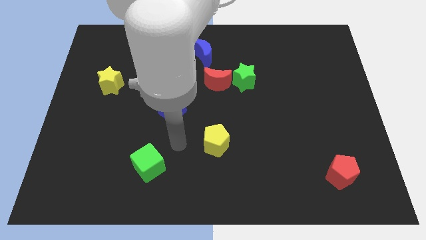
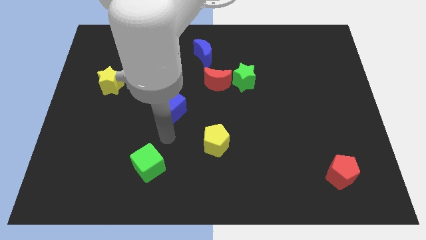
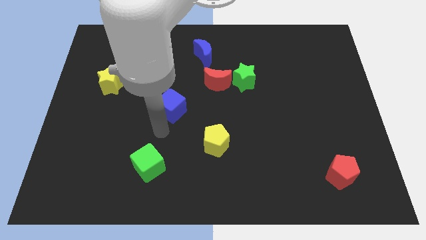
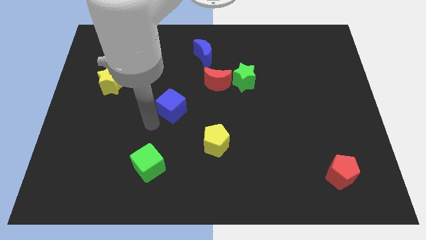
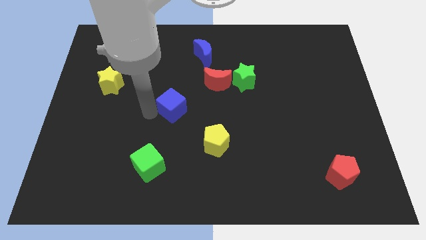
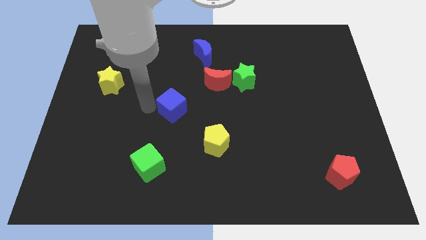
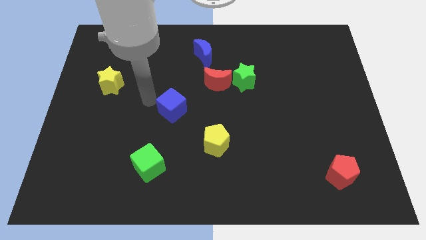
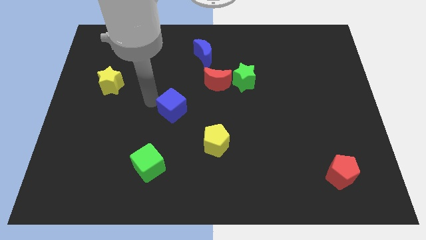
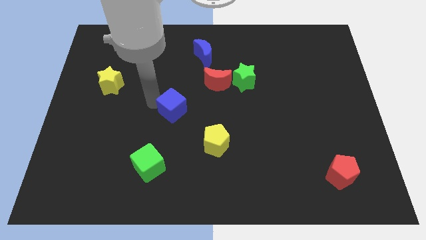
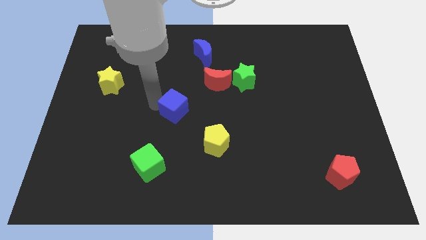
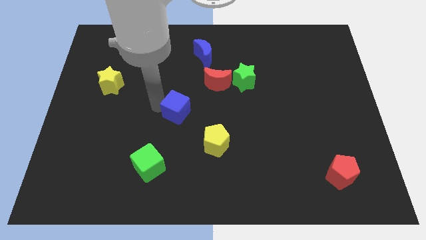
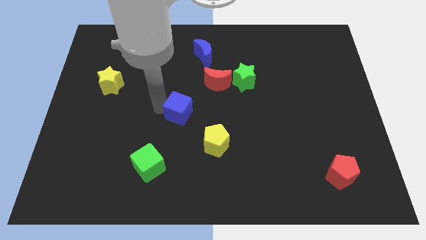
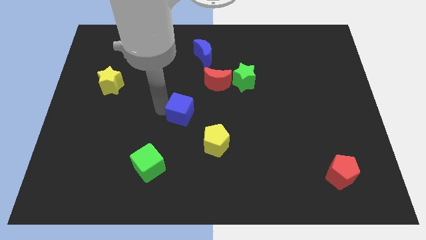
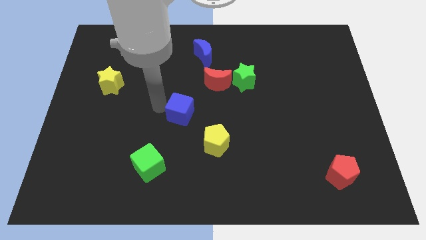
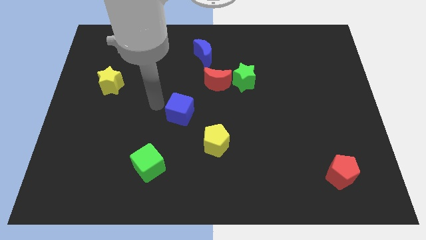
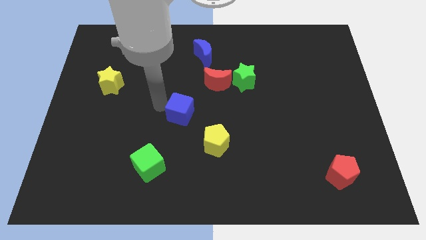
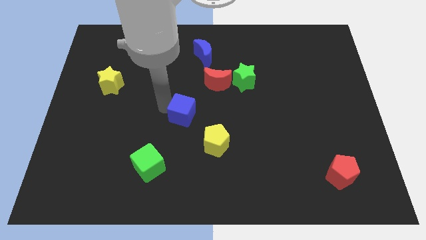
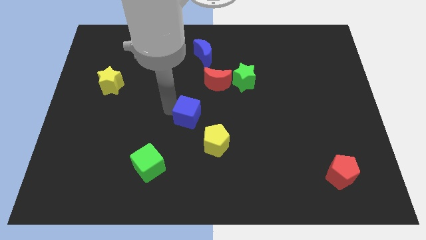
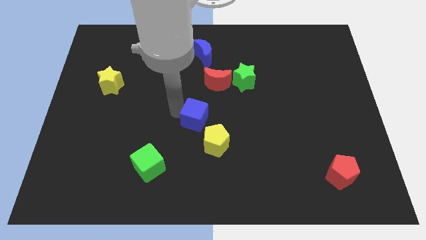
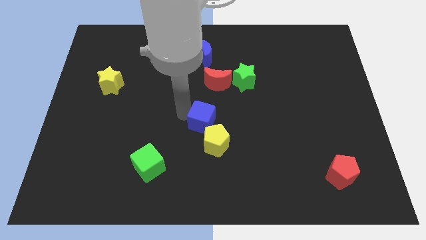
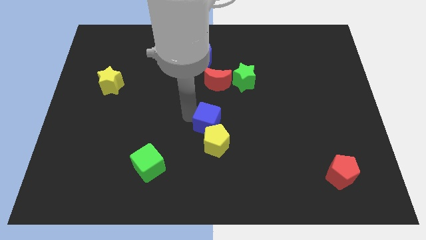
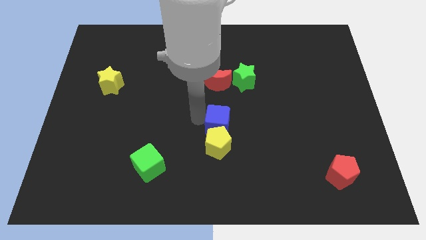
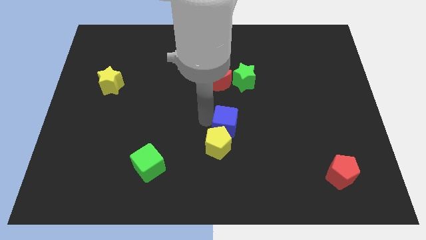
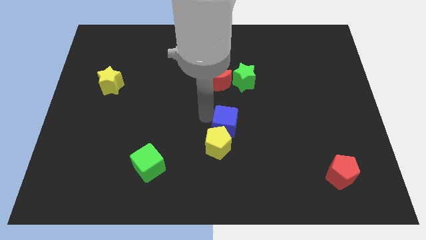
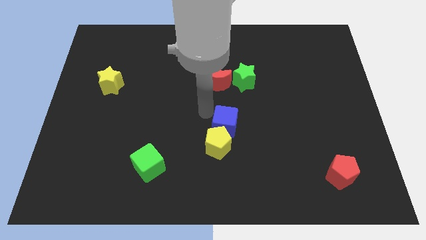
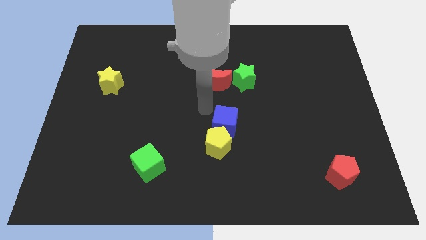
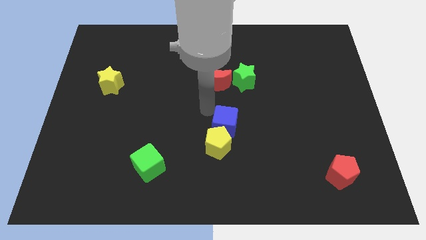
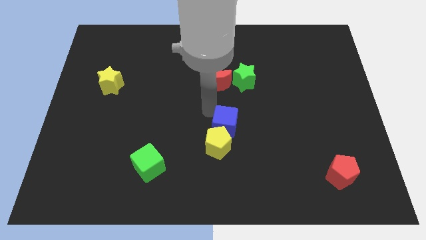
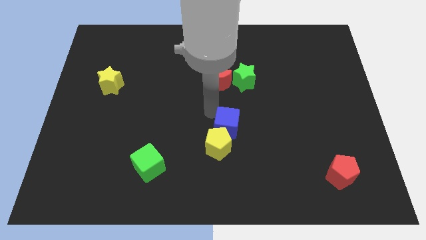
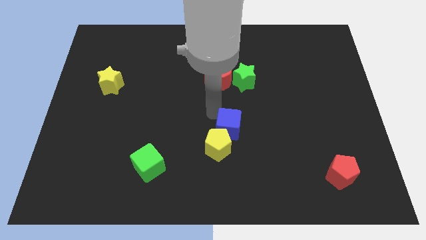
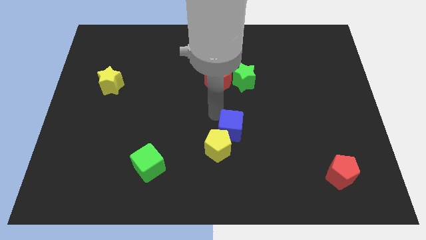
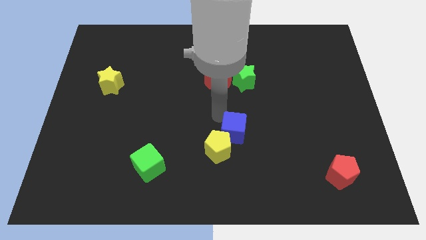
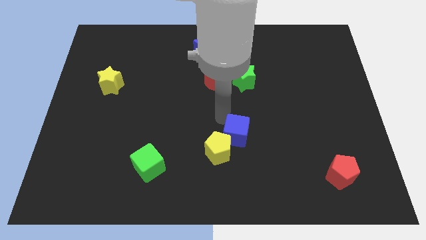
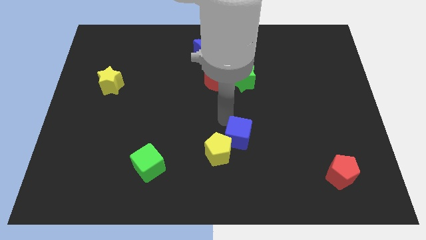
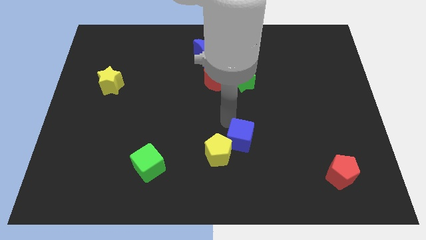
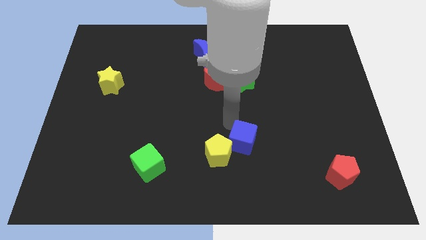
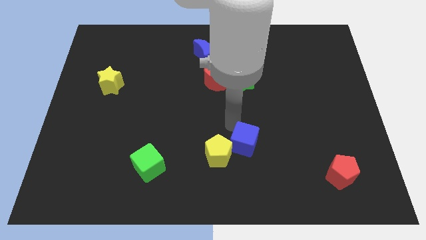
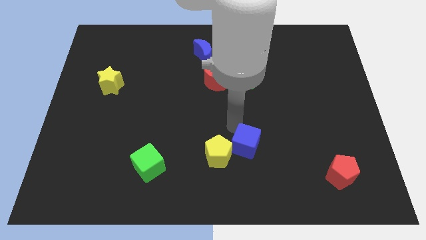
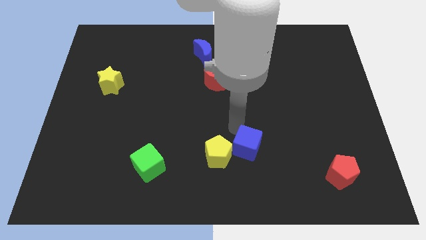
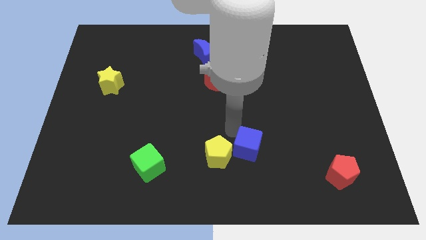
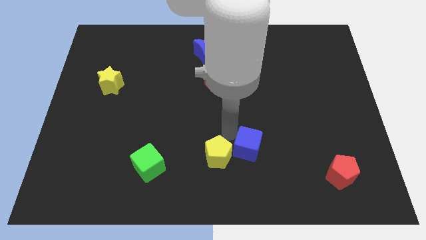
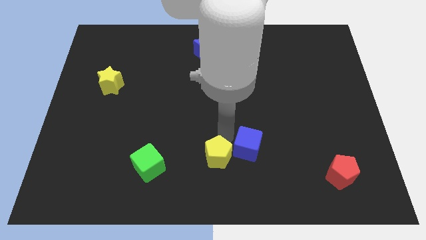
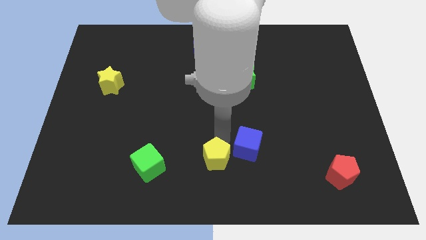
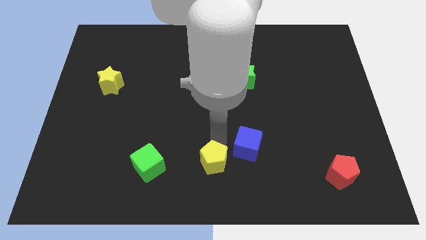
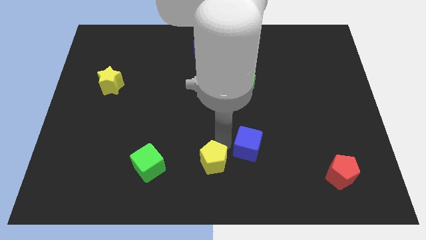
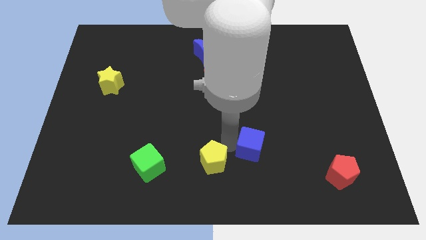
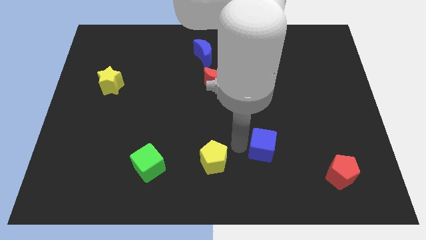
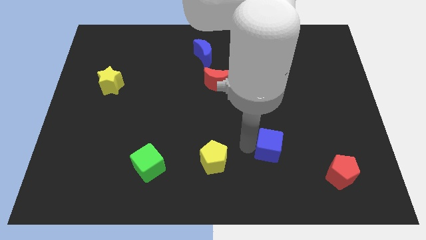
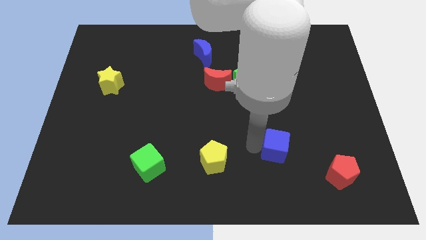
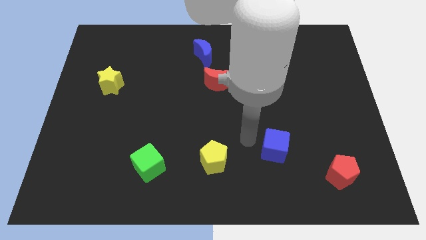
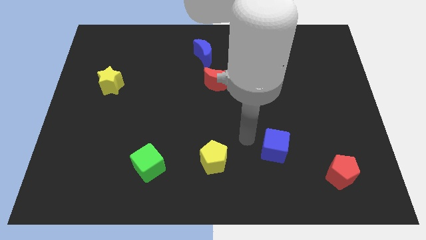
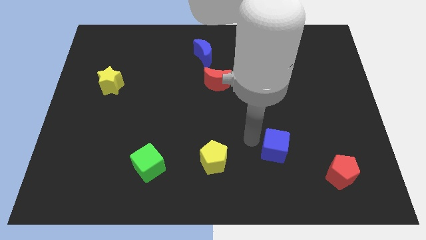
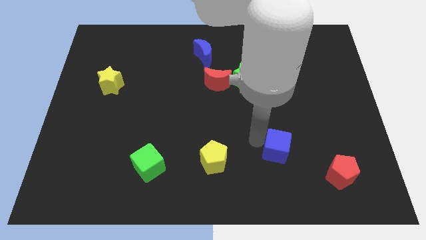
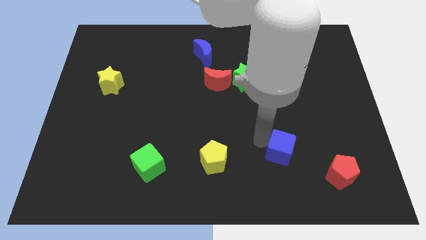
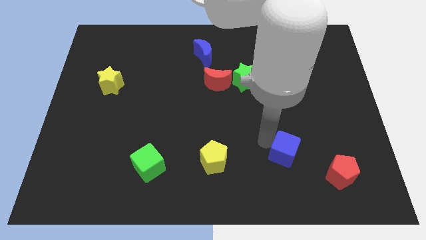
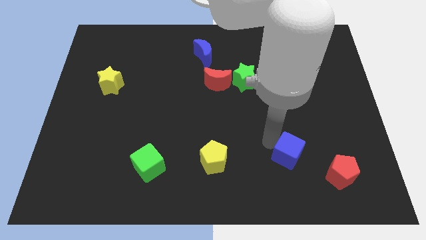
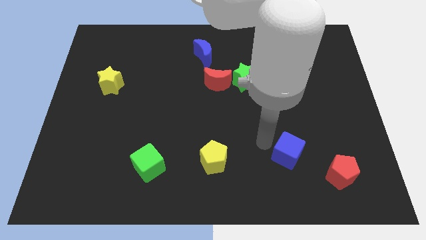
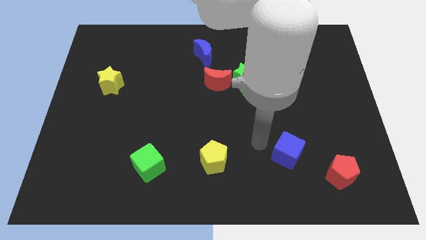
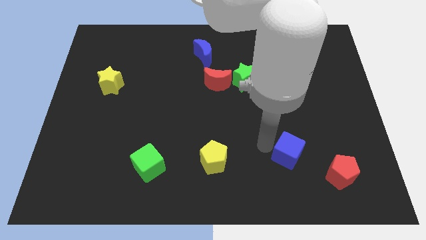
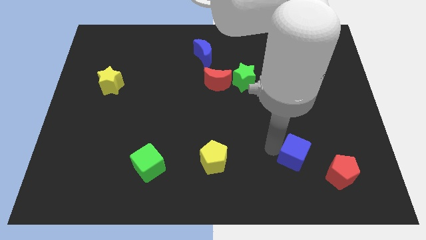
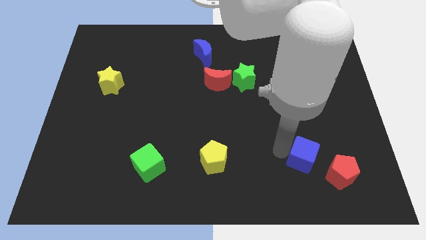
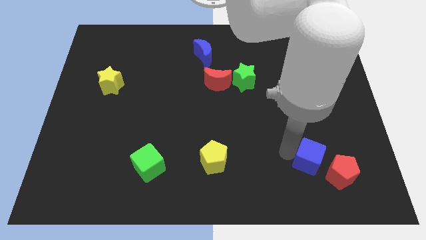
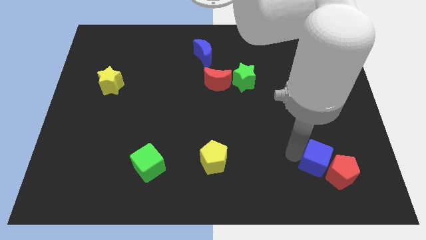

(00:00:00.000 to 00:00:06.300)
put the blue cube close to the red pentagon

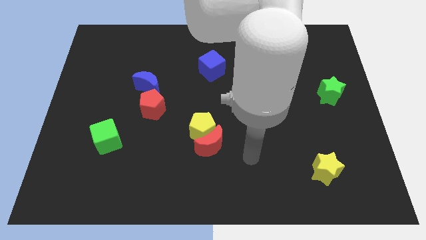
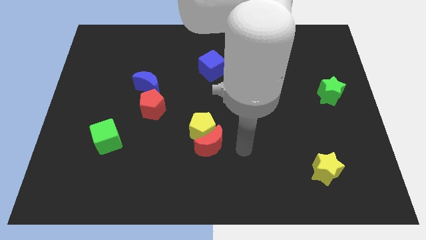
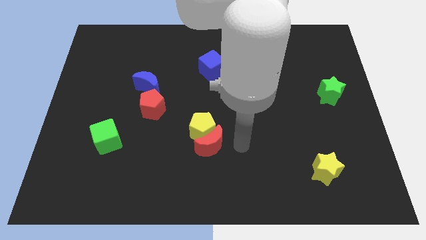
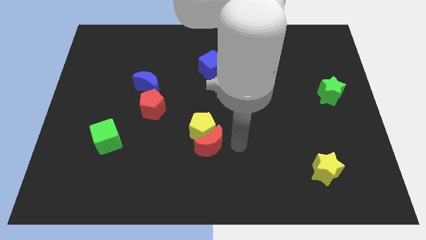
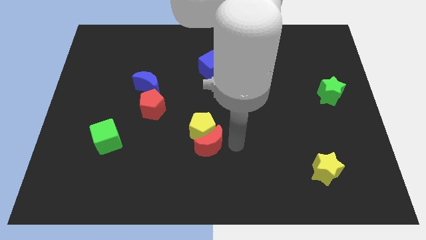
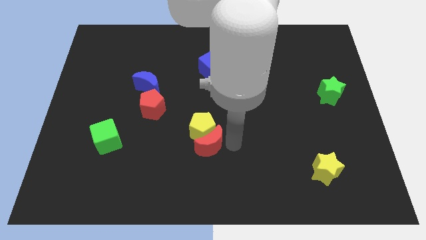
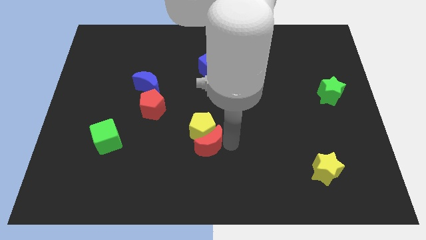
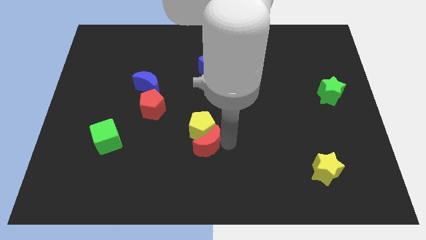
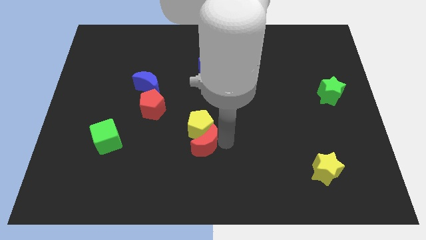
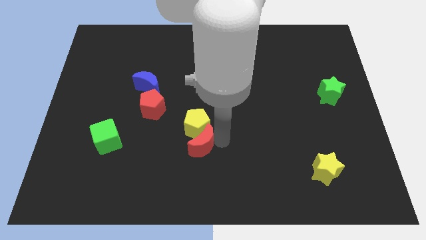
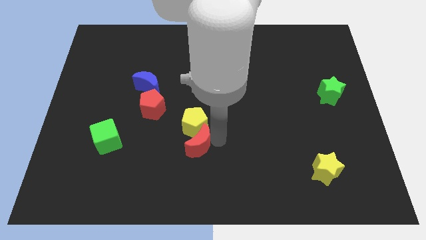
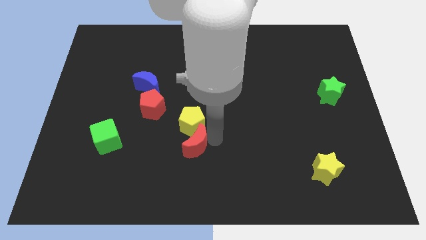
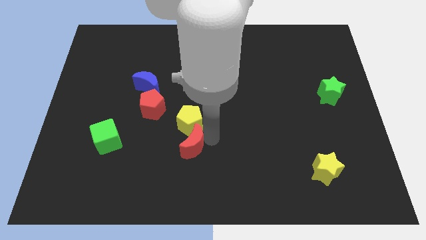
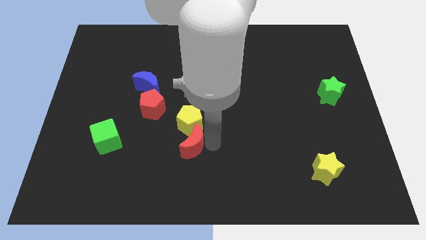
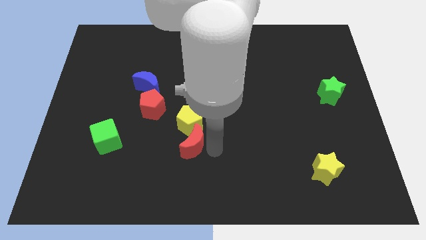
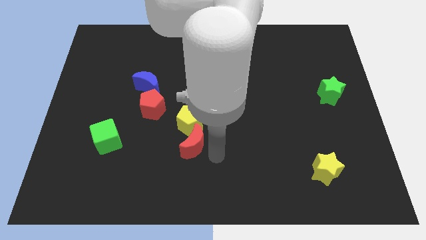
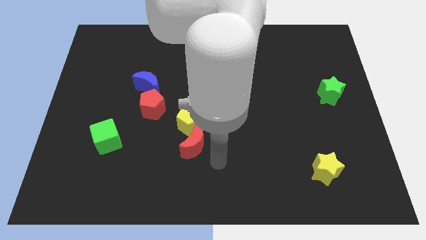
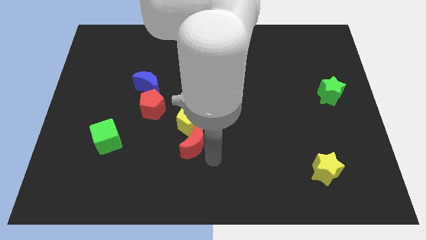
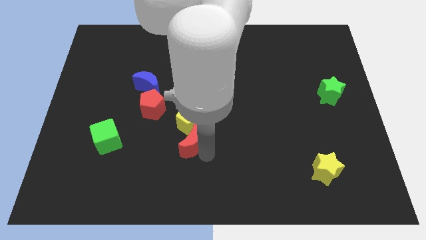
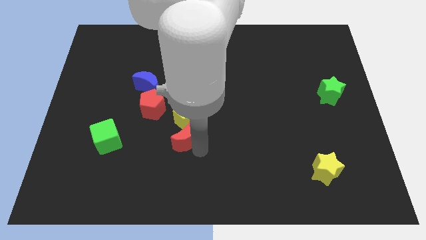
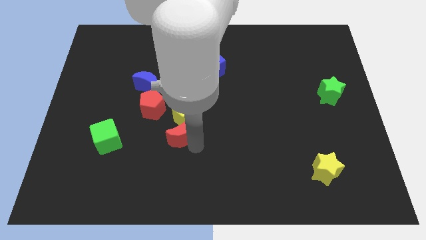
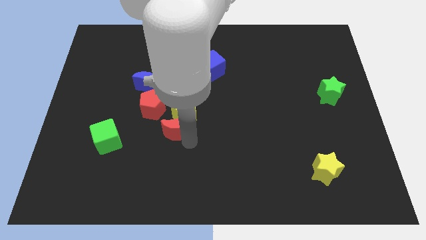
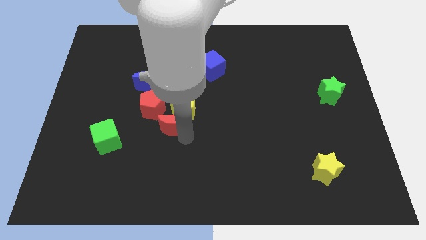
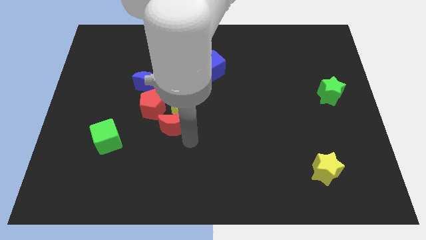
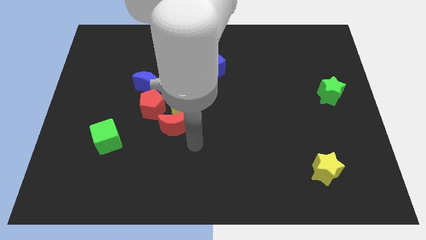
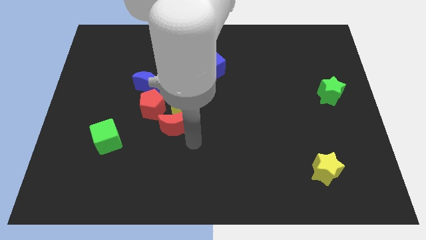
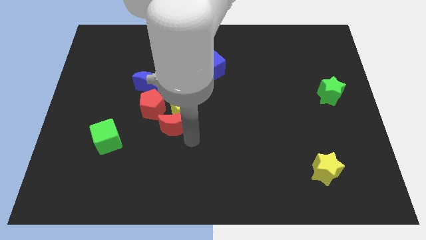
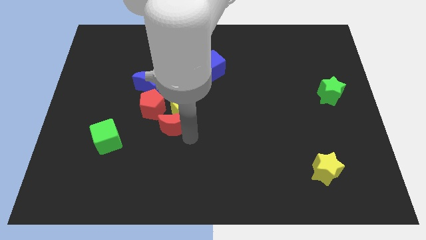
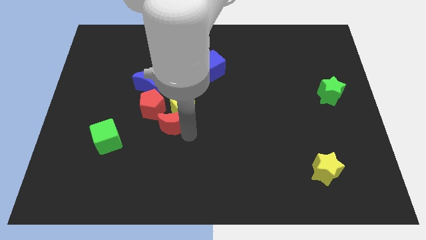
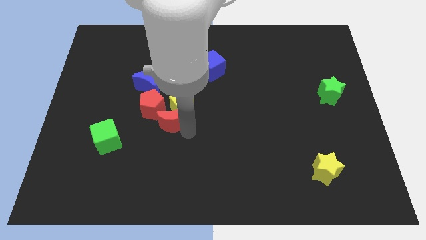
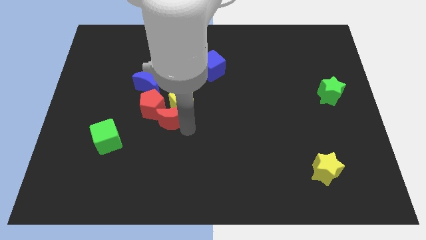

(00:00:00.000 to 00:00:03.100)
move the red moon close to the red pentagon
